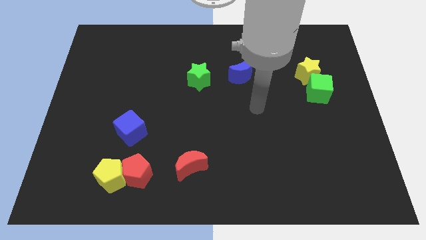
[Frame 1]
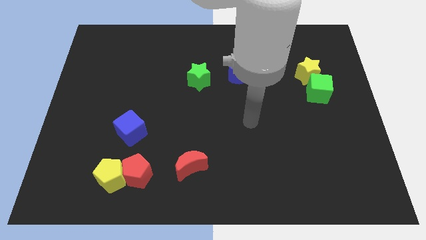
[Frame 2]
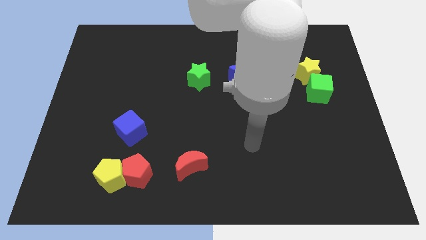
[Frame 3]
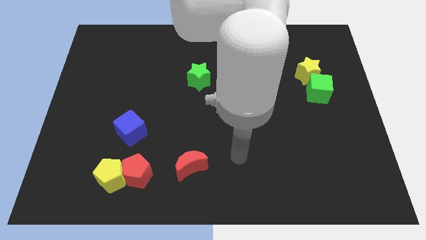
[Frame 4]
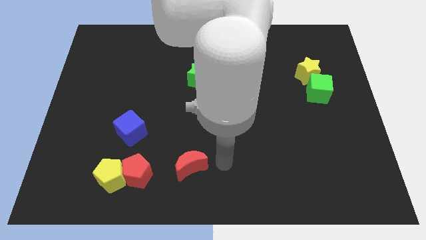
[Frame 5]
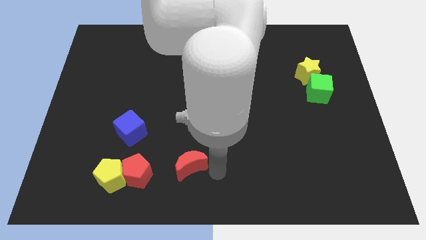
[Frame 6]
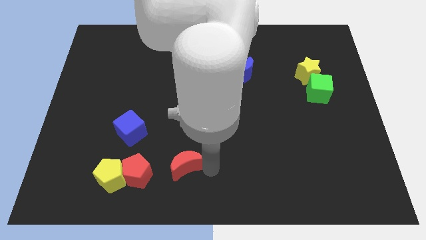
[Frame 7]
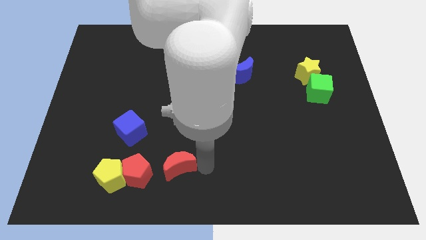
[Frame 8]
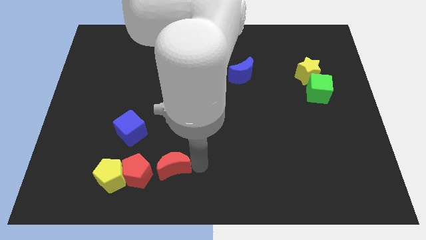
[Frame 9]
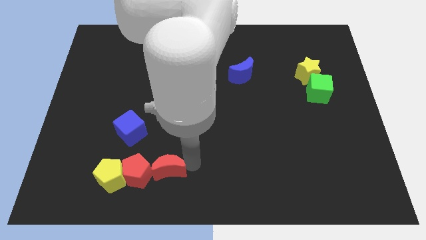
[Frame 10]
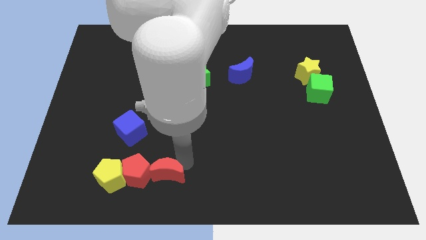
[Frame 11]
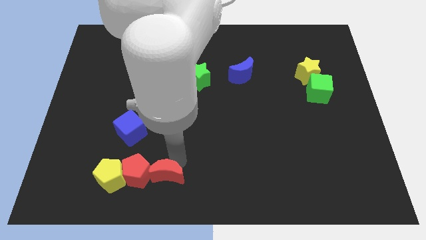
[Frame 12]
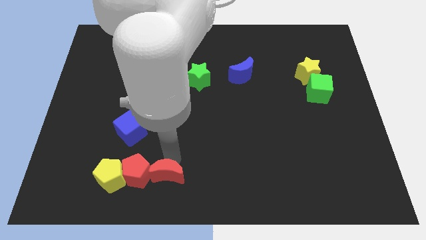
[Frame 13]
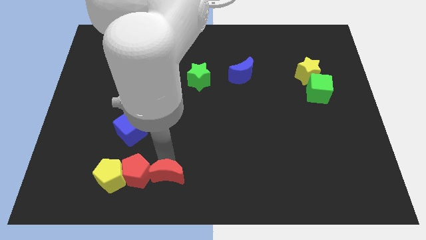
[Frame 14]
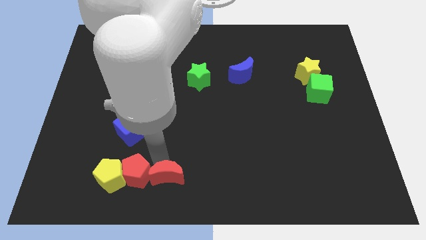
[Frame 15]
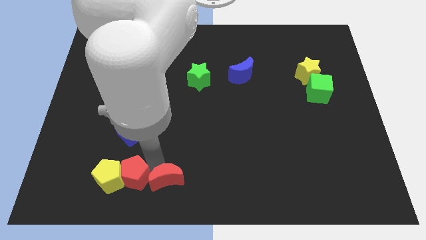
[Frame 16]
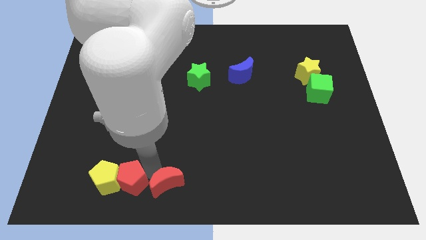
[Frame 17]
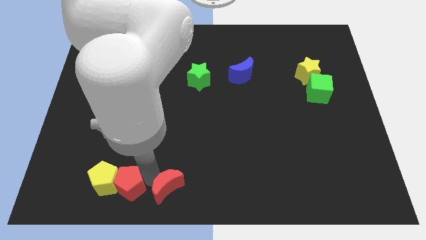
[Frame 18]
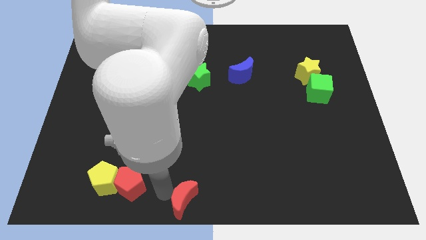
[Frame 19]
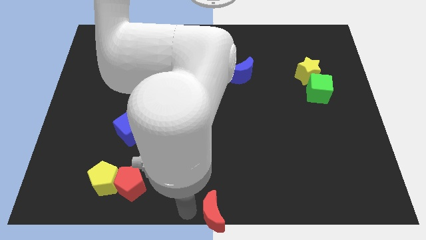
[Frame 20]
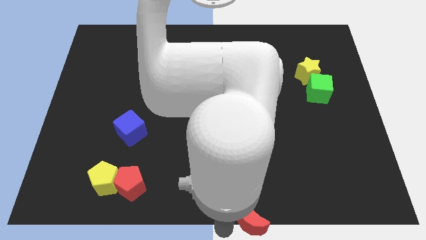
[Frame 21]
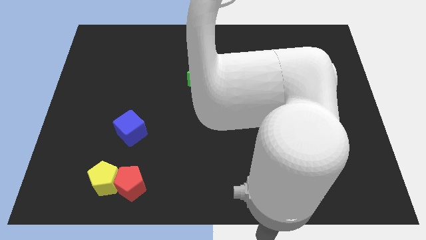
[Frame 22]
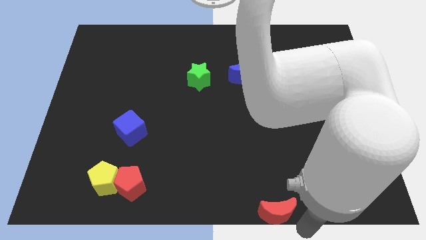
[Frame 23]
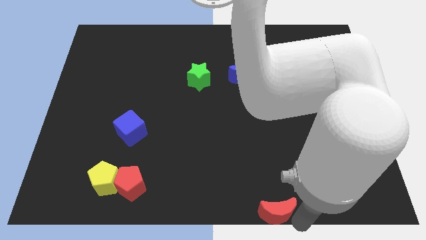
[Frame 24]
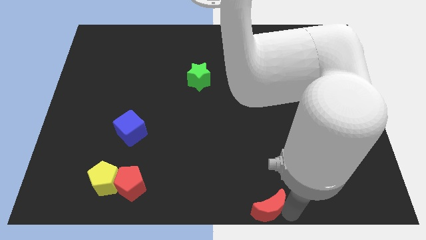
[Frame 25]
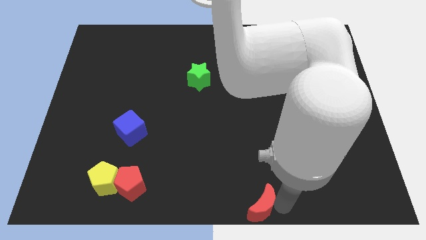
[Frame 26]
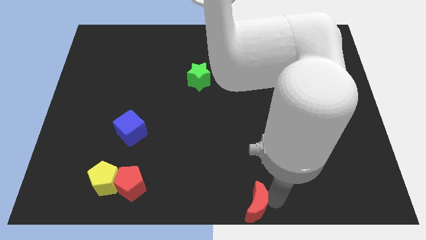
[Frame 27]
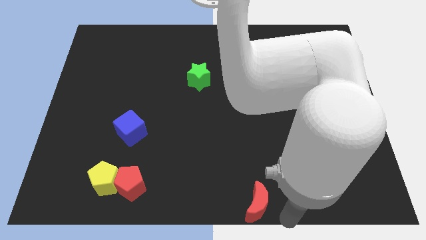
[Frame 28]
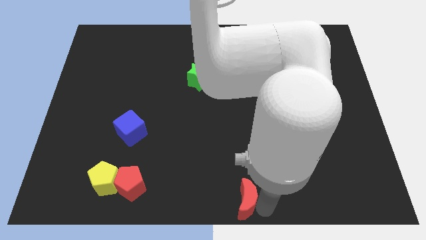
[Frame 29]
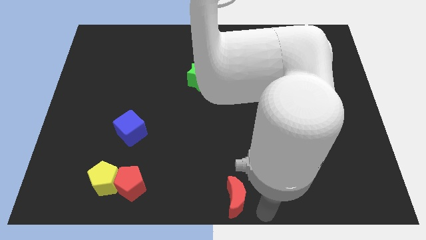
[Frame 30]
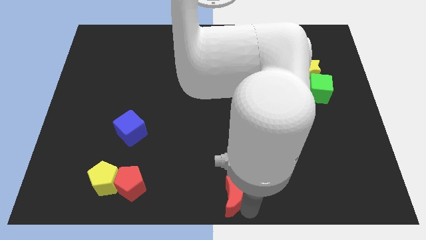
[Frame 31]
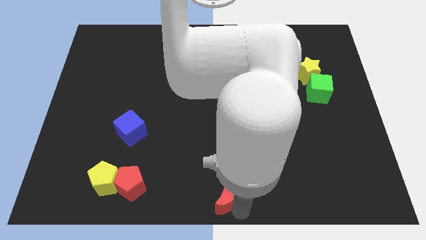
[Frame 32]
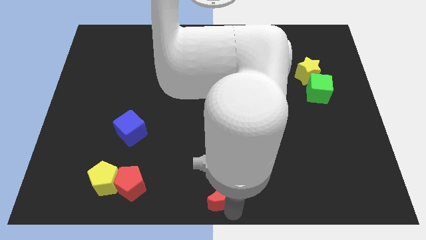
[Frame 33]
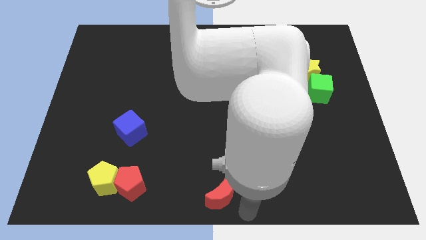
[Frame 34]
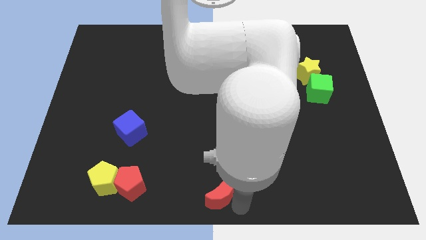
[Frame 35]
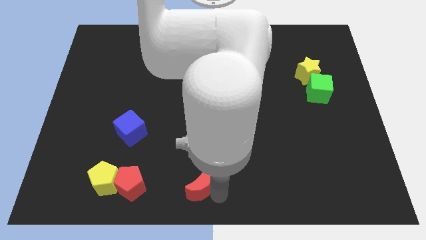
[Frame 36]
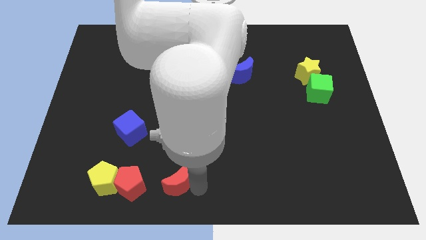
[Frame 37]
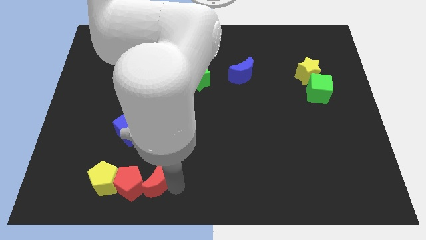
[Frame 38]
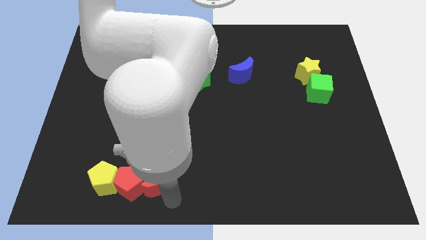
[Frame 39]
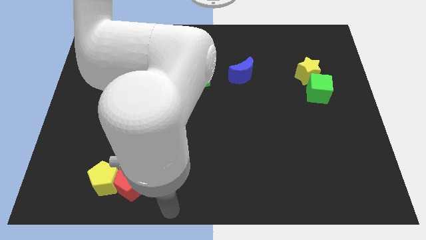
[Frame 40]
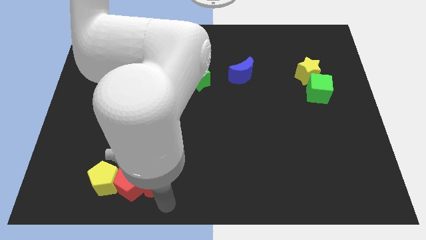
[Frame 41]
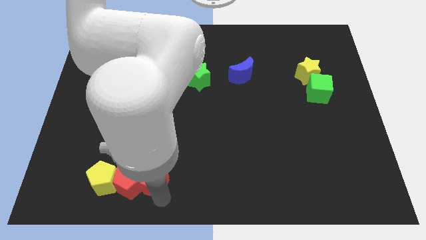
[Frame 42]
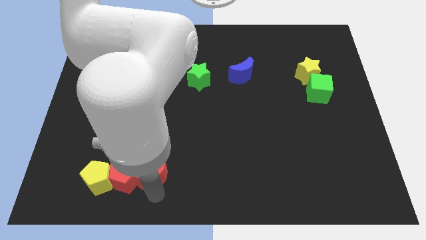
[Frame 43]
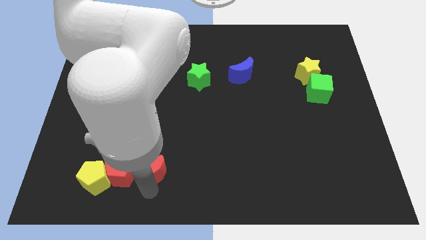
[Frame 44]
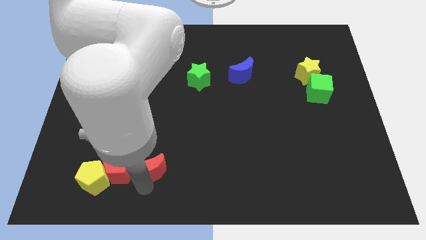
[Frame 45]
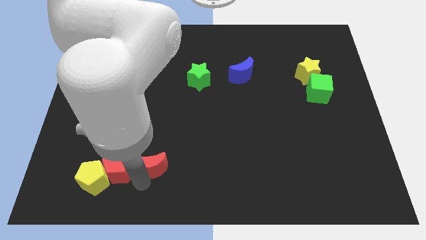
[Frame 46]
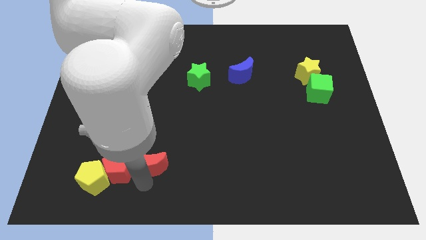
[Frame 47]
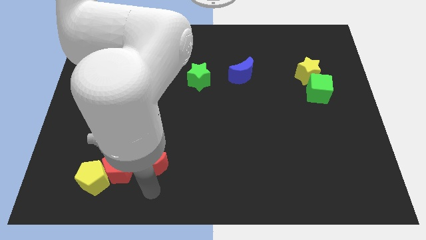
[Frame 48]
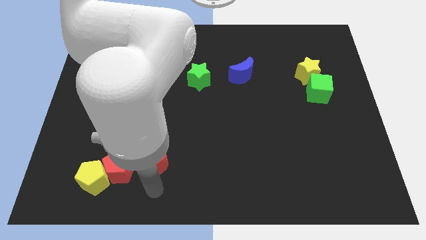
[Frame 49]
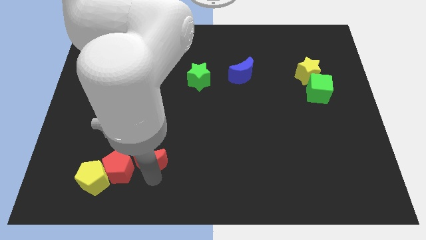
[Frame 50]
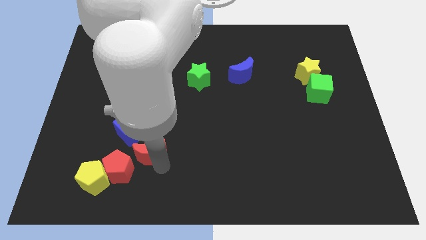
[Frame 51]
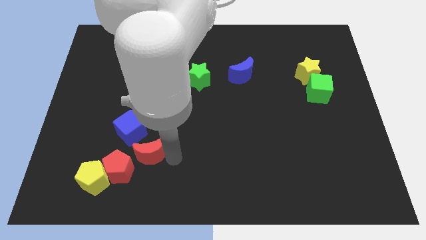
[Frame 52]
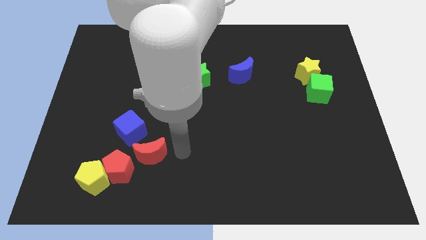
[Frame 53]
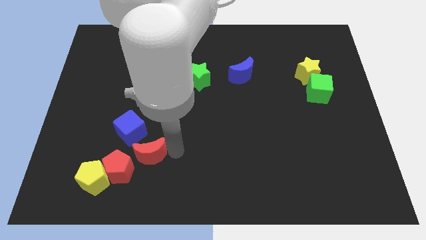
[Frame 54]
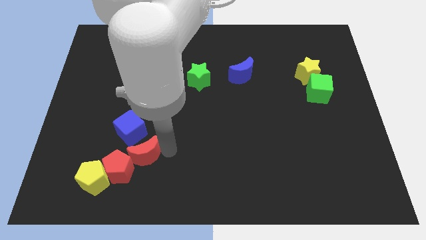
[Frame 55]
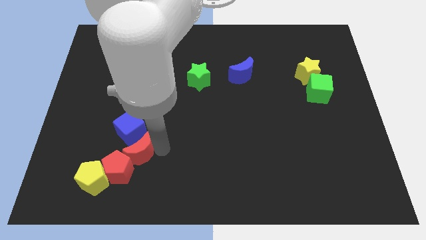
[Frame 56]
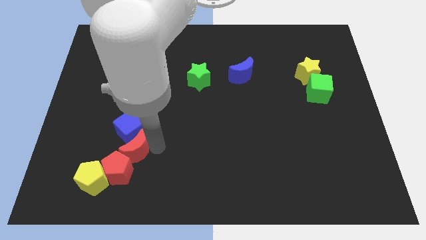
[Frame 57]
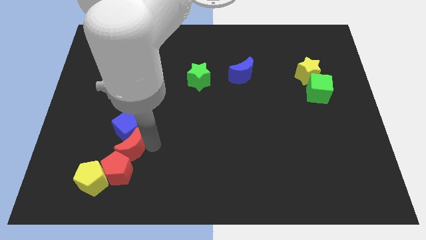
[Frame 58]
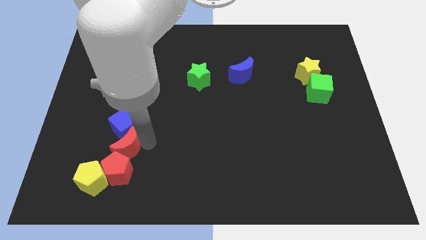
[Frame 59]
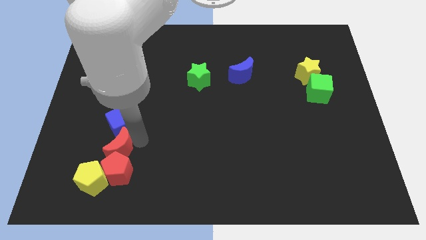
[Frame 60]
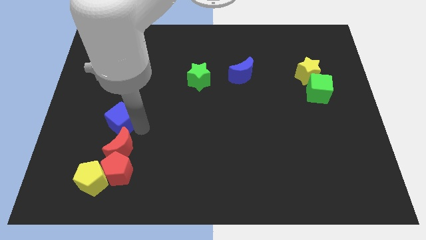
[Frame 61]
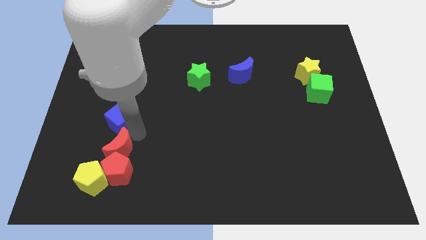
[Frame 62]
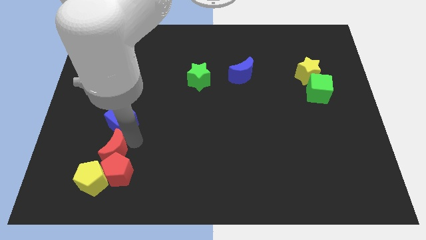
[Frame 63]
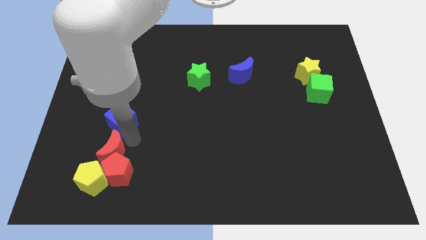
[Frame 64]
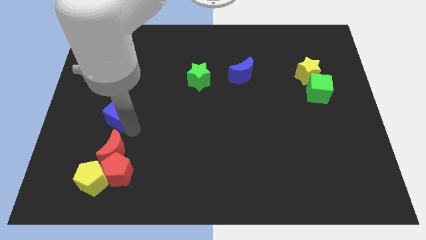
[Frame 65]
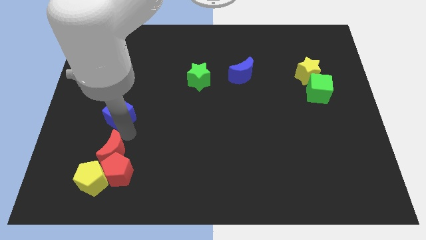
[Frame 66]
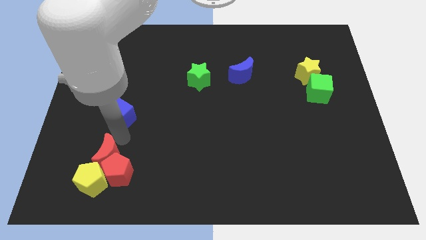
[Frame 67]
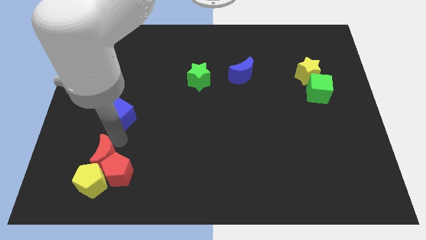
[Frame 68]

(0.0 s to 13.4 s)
slide the red moon close to the yellow pentagon
